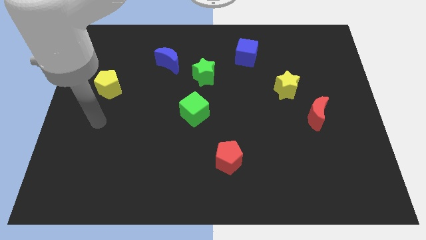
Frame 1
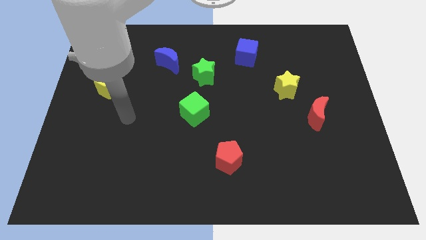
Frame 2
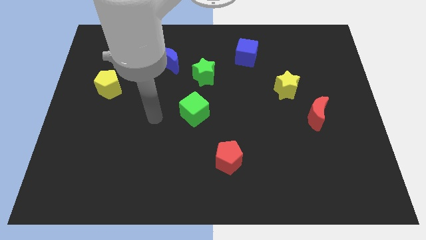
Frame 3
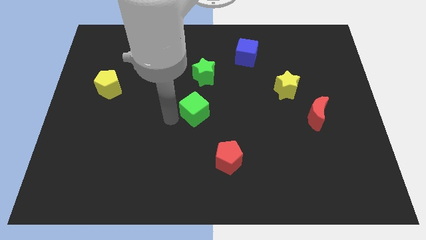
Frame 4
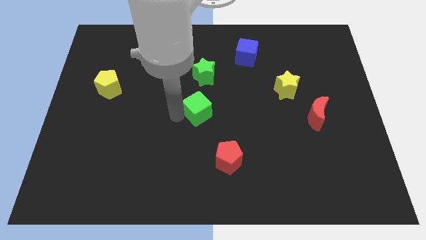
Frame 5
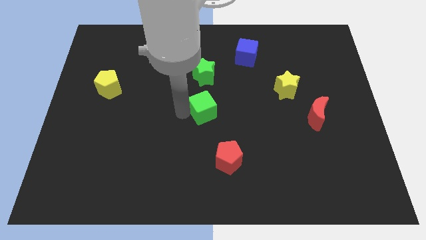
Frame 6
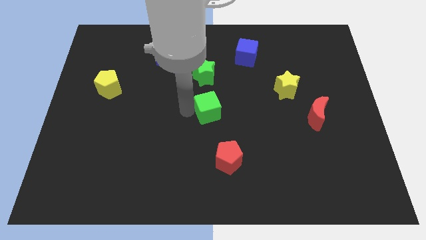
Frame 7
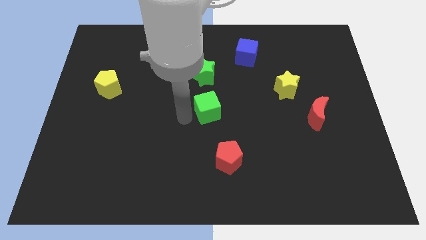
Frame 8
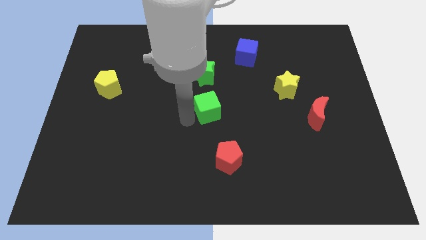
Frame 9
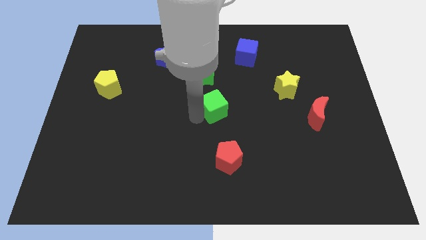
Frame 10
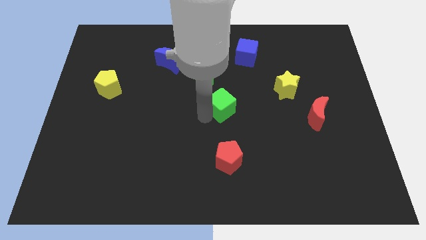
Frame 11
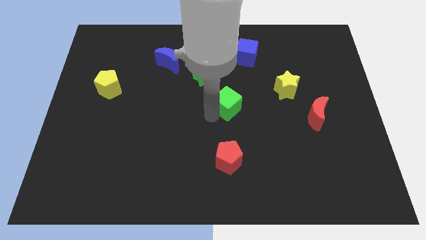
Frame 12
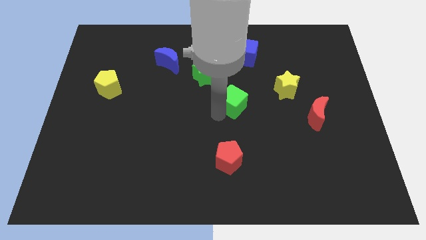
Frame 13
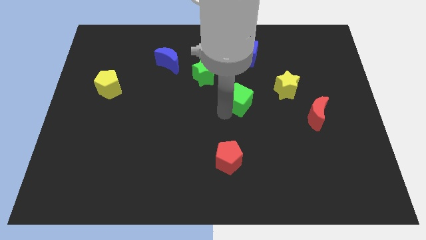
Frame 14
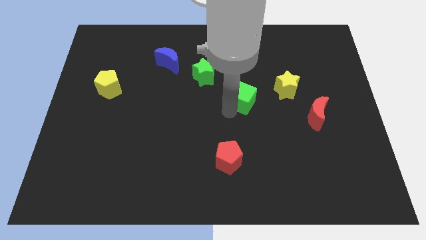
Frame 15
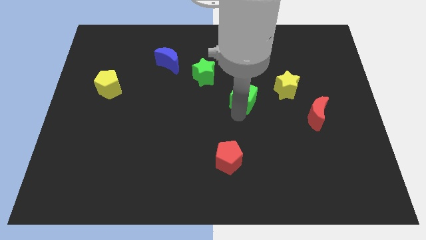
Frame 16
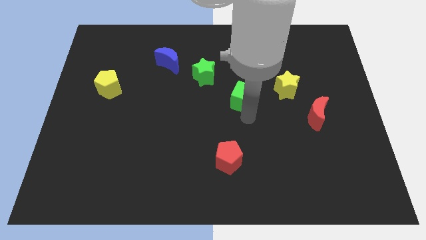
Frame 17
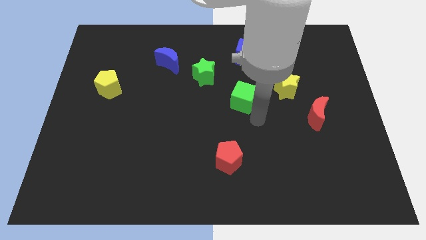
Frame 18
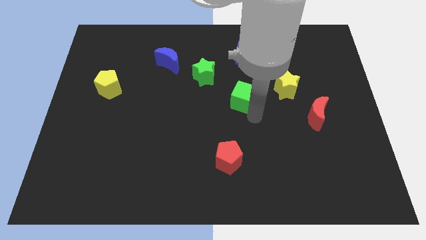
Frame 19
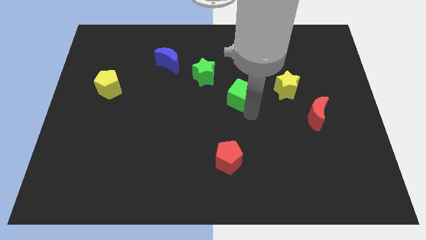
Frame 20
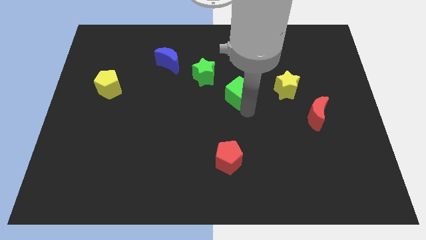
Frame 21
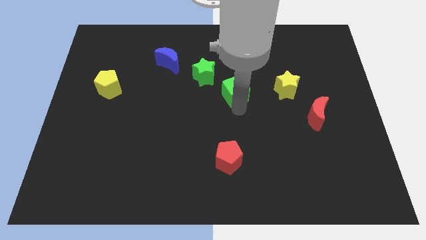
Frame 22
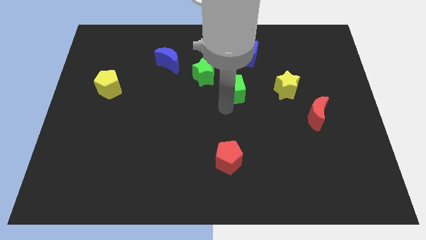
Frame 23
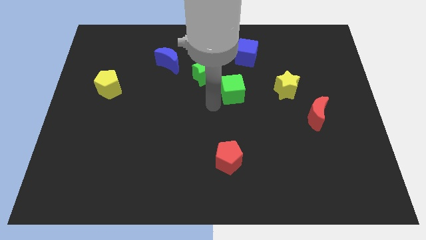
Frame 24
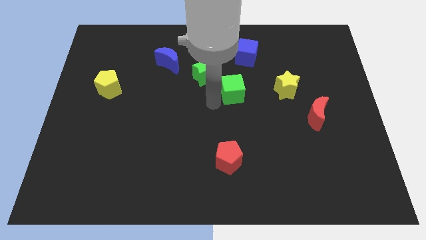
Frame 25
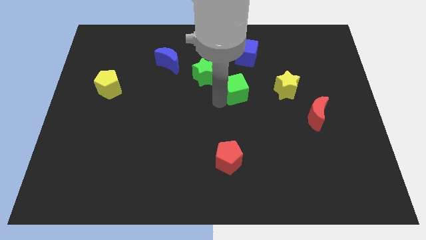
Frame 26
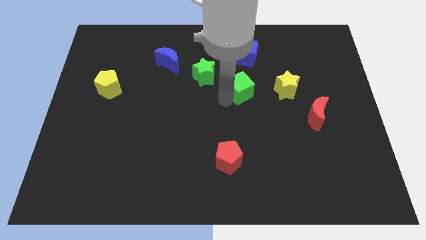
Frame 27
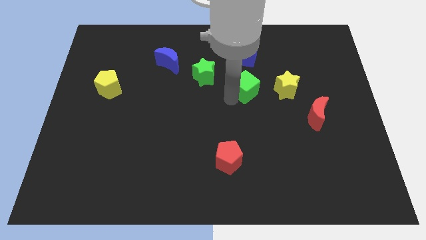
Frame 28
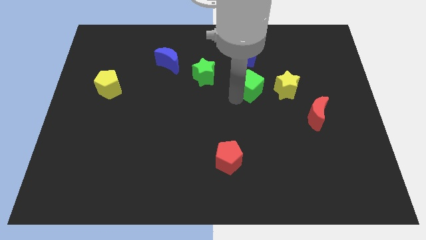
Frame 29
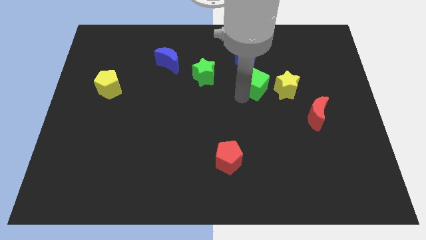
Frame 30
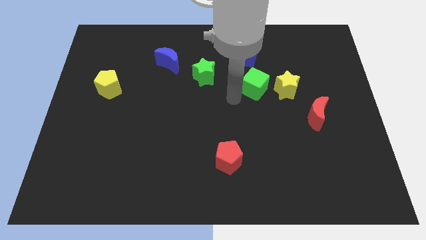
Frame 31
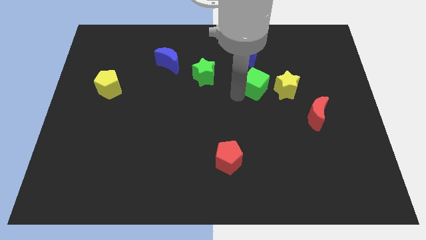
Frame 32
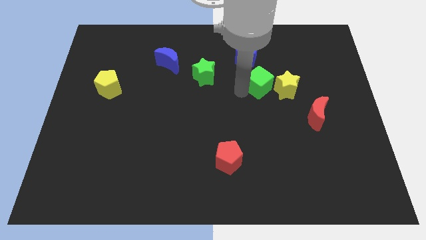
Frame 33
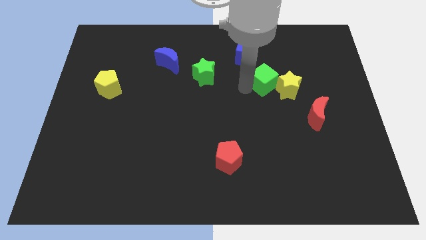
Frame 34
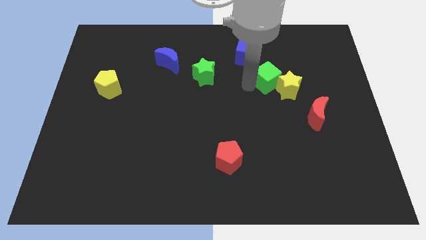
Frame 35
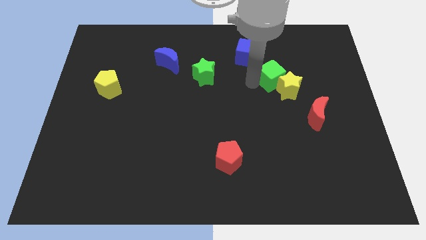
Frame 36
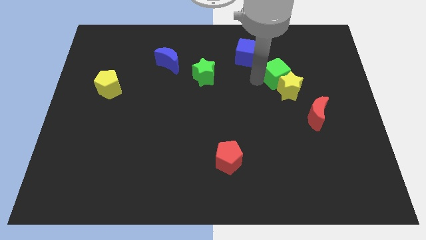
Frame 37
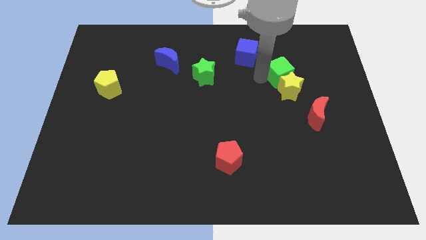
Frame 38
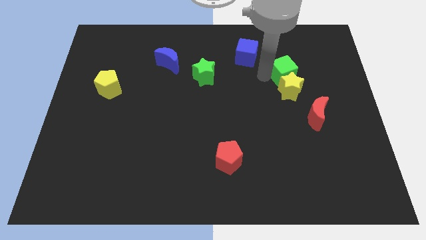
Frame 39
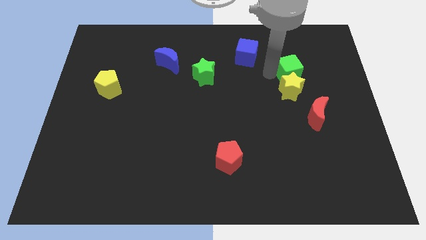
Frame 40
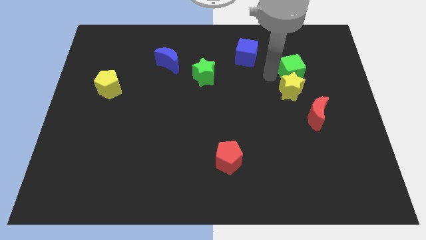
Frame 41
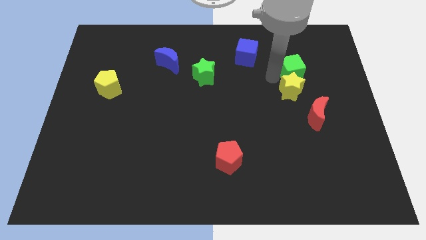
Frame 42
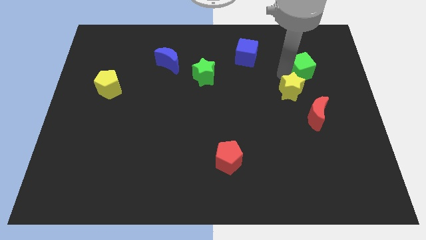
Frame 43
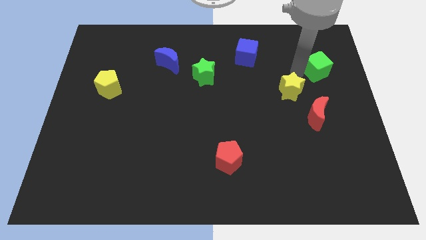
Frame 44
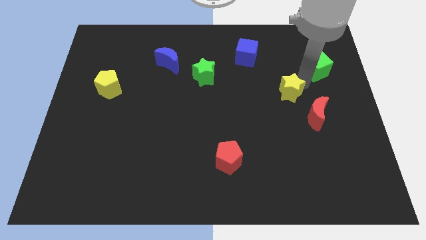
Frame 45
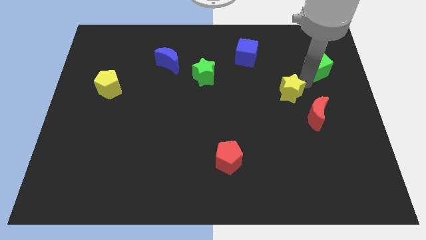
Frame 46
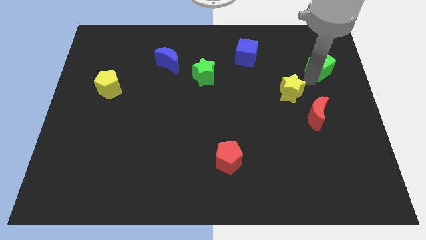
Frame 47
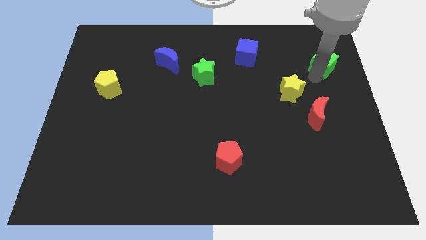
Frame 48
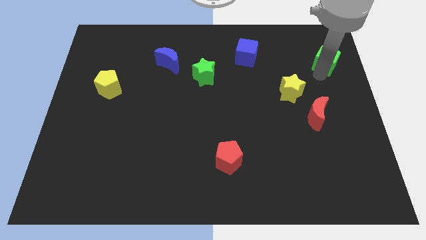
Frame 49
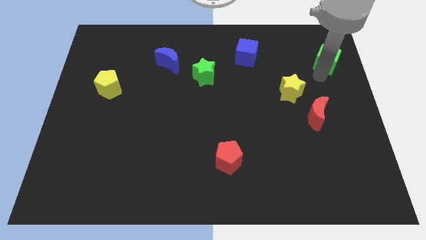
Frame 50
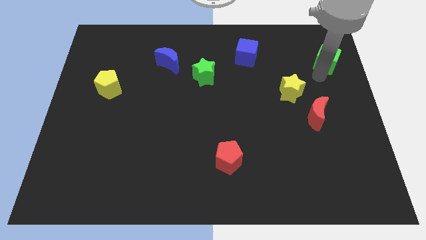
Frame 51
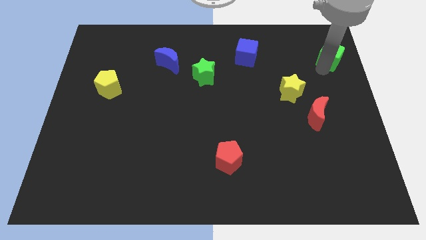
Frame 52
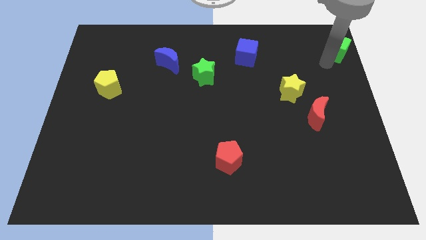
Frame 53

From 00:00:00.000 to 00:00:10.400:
slide the green cube to the top right corner

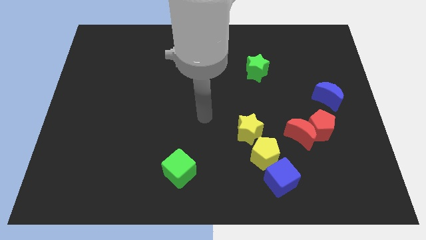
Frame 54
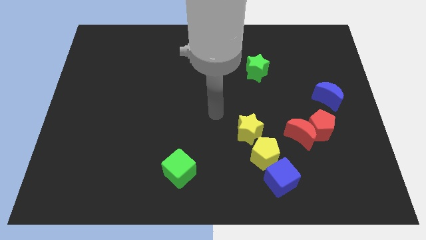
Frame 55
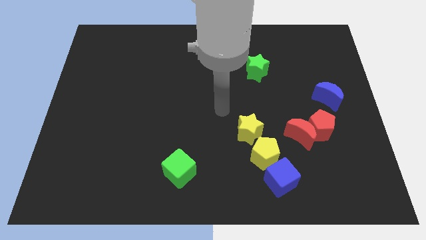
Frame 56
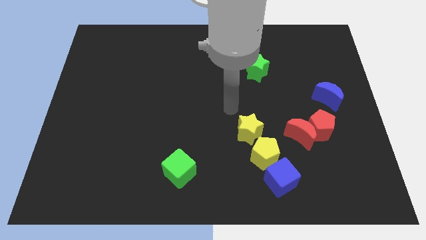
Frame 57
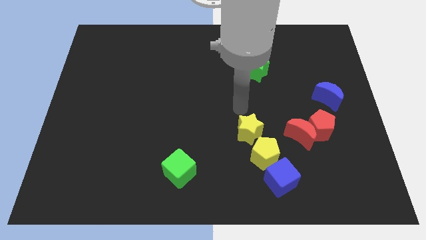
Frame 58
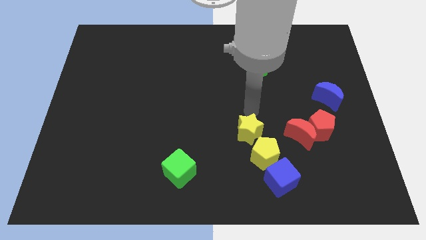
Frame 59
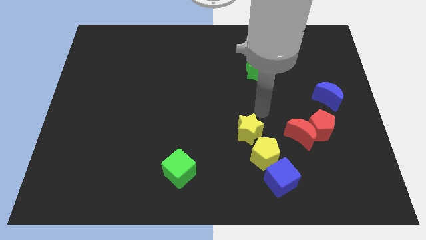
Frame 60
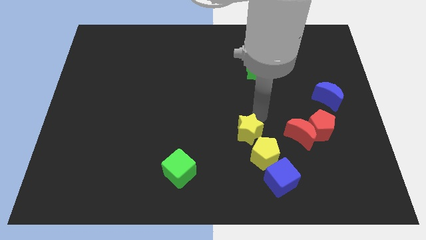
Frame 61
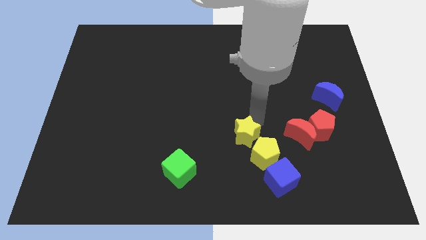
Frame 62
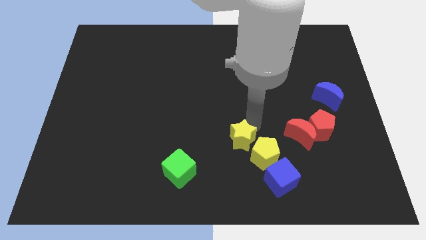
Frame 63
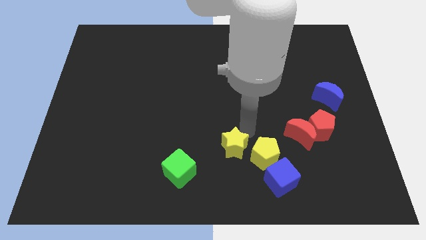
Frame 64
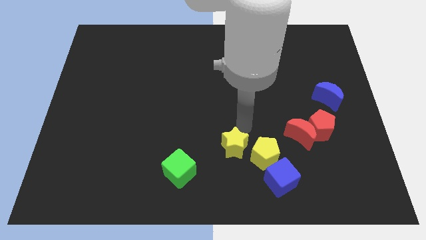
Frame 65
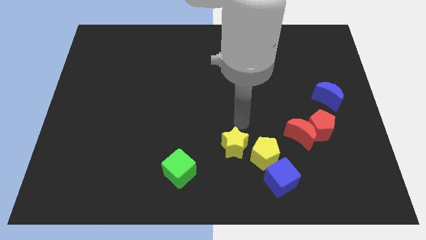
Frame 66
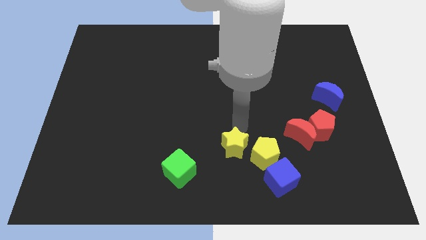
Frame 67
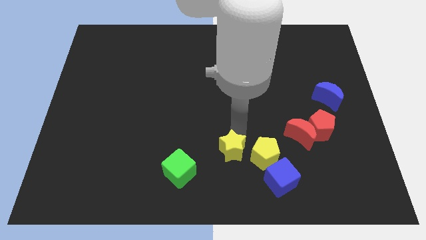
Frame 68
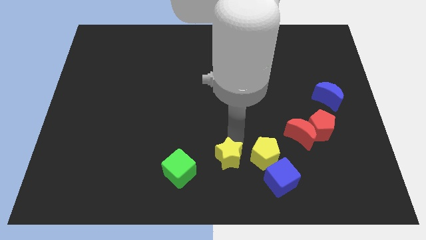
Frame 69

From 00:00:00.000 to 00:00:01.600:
push the yellow star to the bottom side

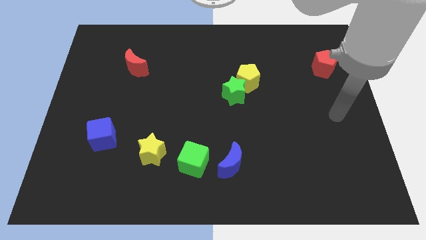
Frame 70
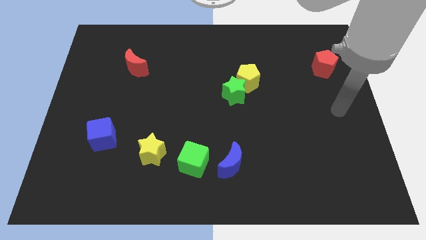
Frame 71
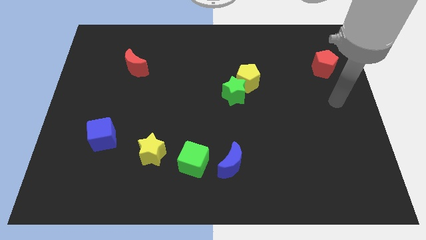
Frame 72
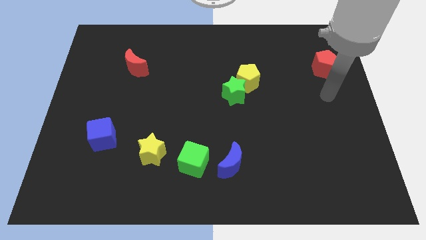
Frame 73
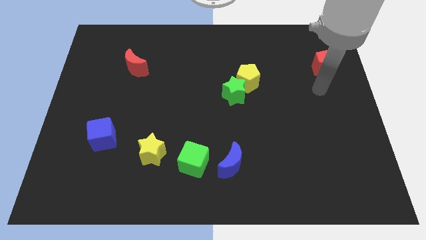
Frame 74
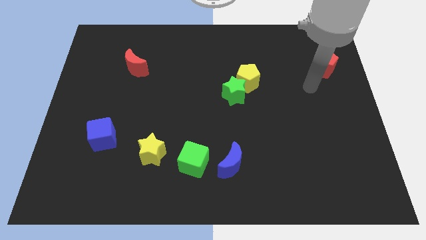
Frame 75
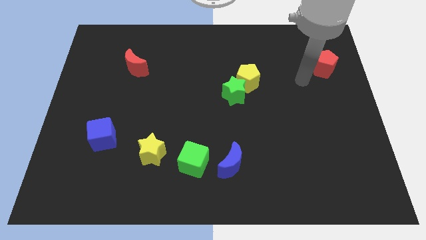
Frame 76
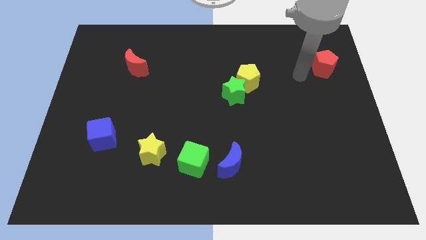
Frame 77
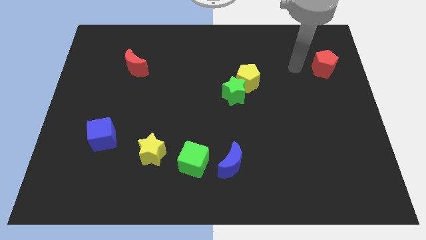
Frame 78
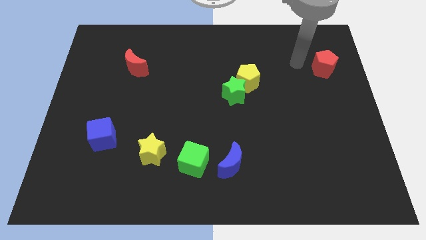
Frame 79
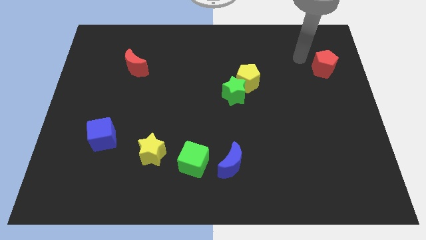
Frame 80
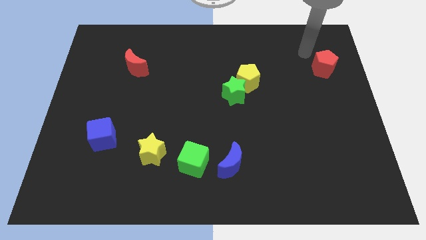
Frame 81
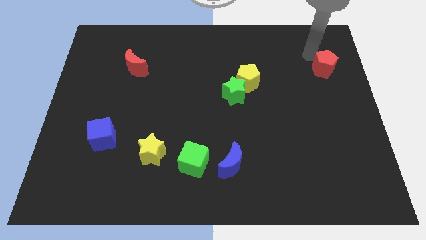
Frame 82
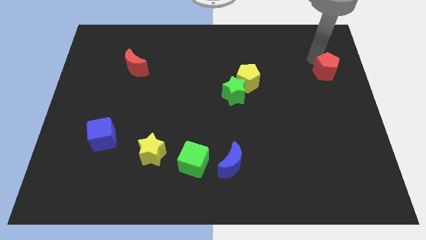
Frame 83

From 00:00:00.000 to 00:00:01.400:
push the red pentagon to the right side
